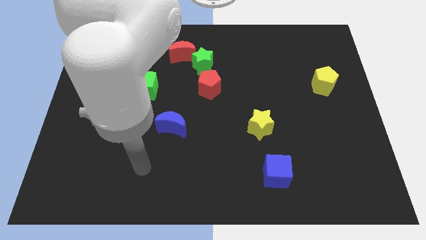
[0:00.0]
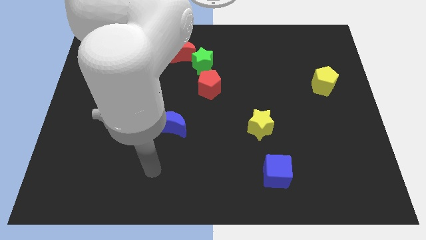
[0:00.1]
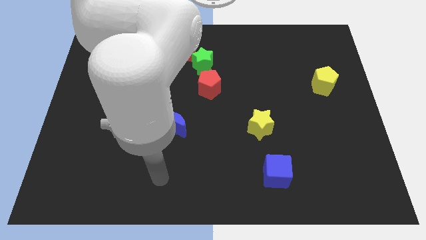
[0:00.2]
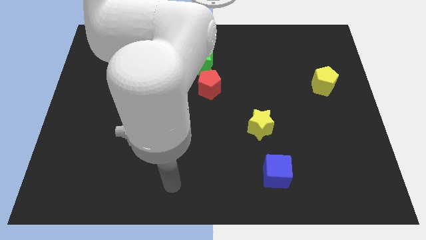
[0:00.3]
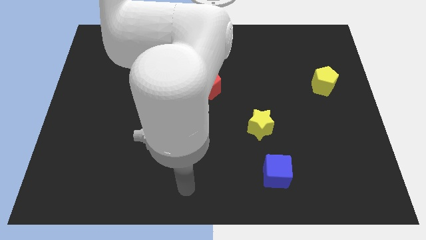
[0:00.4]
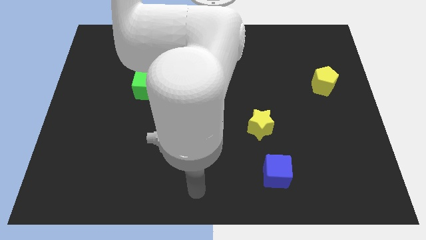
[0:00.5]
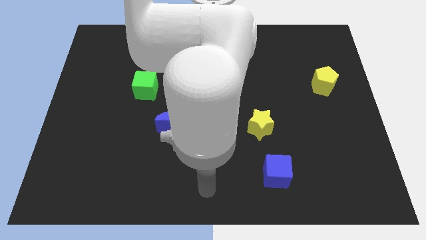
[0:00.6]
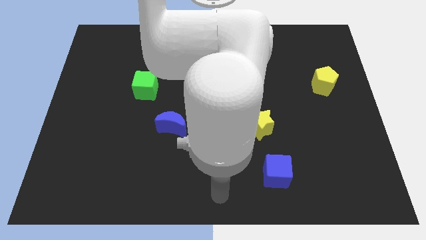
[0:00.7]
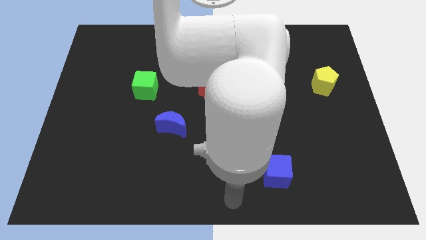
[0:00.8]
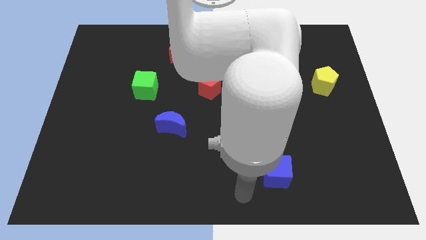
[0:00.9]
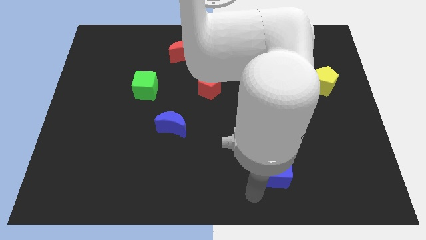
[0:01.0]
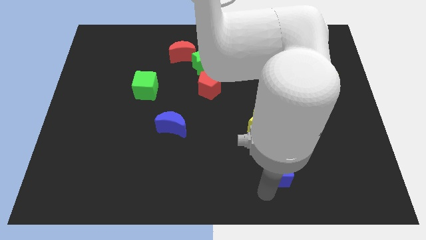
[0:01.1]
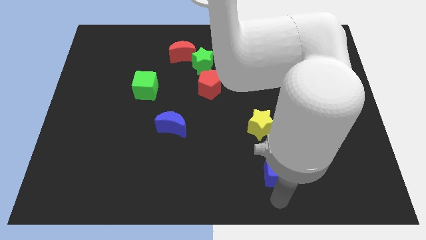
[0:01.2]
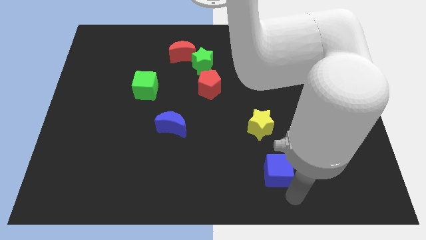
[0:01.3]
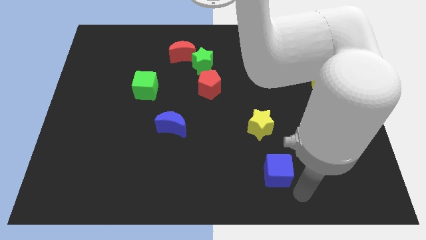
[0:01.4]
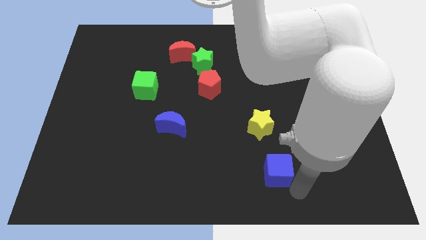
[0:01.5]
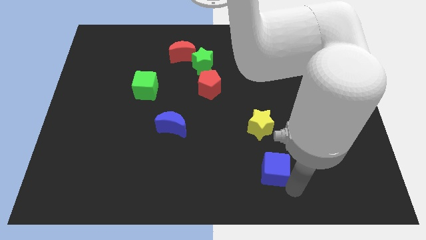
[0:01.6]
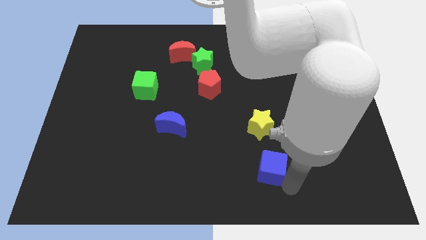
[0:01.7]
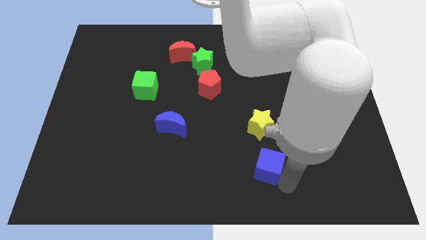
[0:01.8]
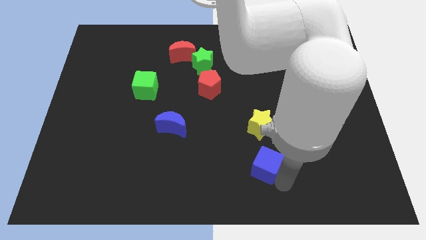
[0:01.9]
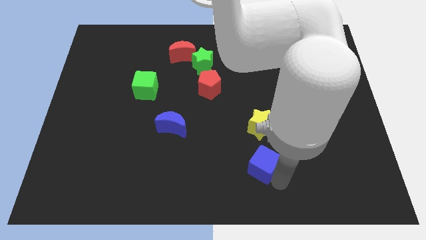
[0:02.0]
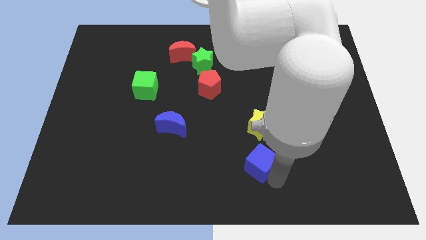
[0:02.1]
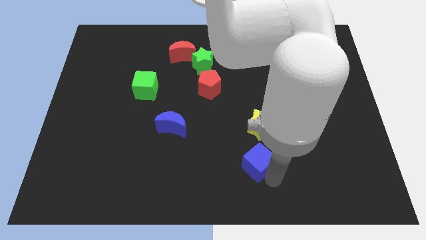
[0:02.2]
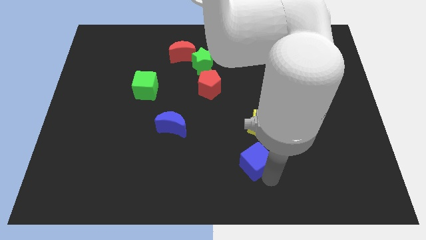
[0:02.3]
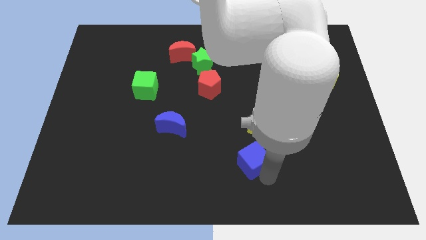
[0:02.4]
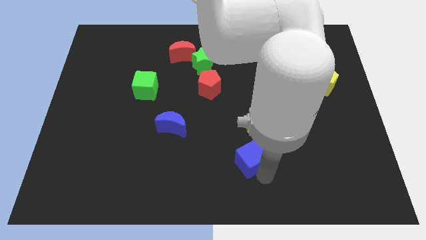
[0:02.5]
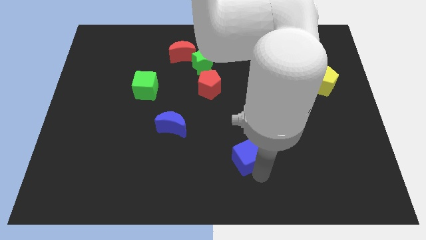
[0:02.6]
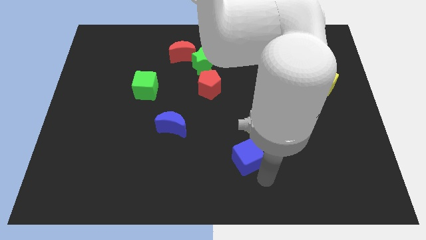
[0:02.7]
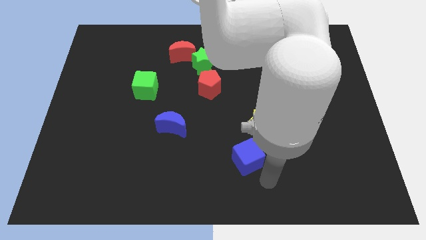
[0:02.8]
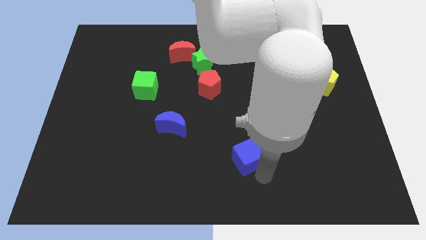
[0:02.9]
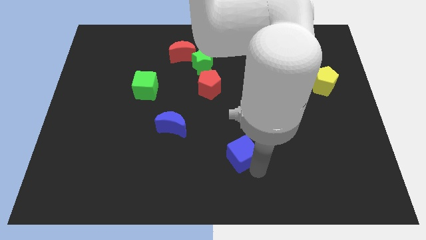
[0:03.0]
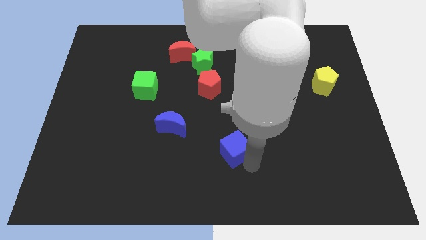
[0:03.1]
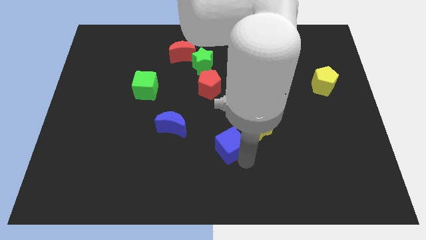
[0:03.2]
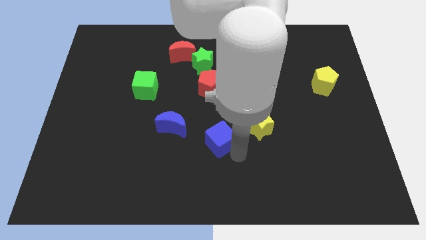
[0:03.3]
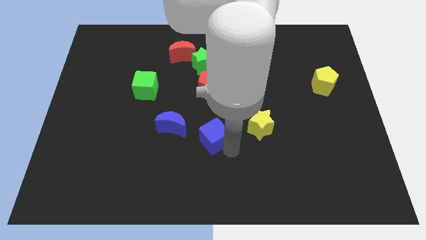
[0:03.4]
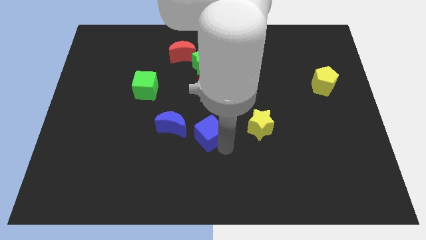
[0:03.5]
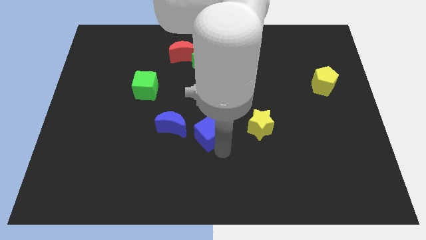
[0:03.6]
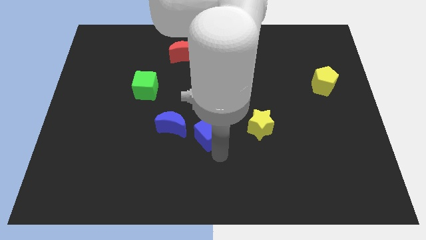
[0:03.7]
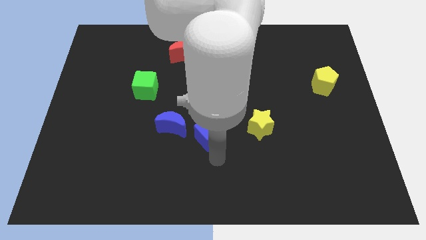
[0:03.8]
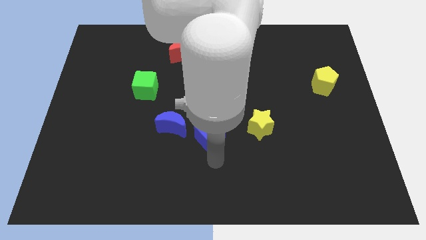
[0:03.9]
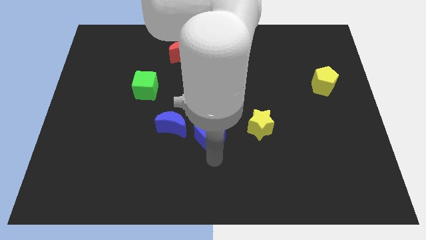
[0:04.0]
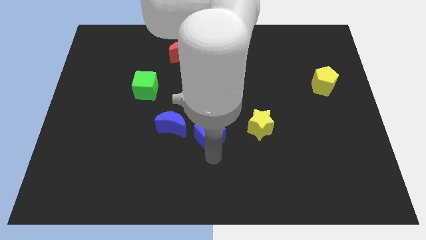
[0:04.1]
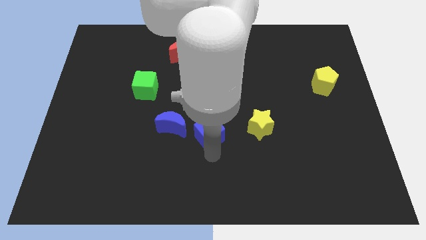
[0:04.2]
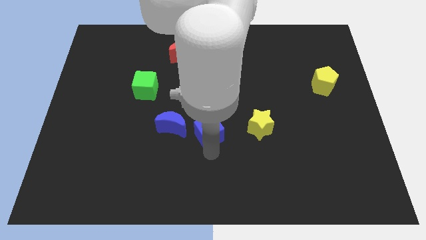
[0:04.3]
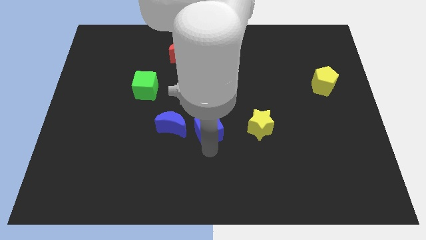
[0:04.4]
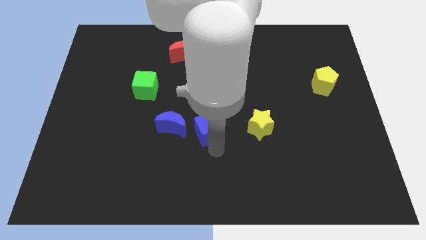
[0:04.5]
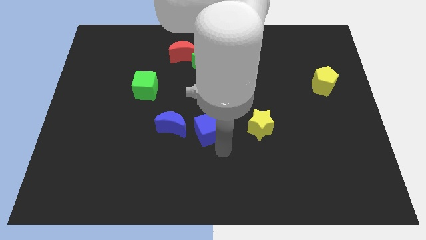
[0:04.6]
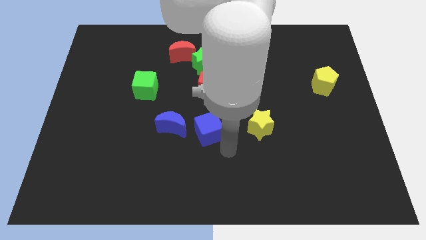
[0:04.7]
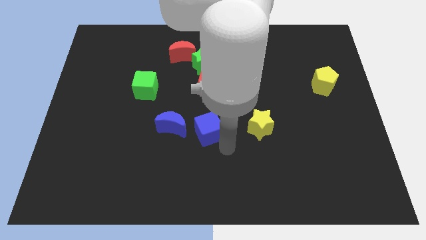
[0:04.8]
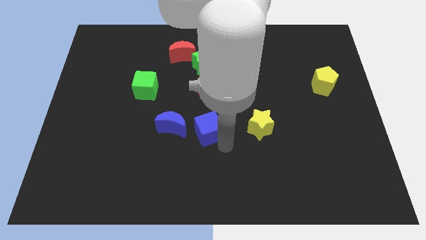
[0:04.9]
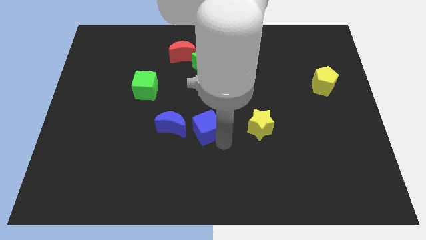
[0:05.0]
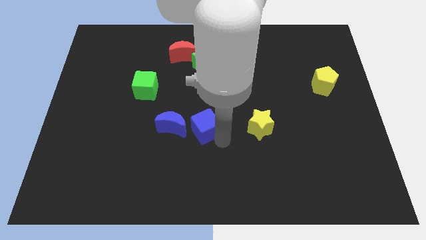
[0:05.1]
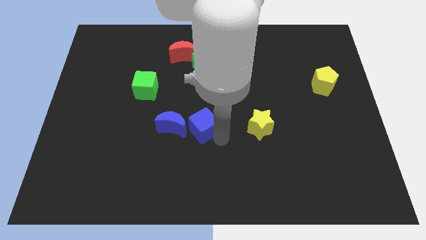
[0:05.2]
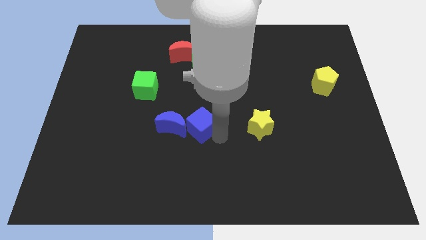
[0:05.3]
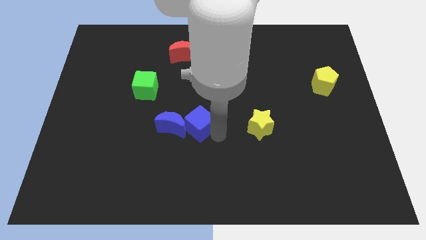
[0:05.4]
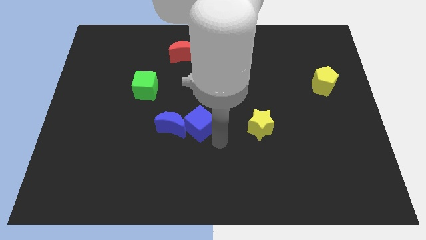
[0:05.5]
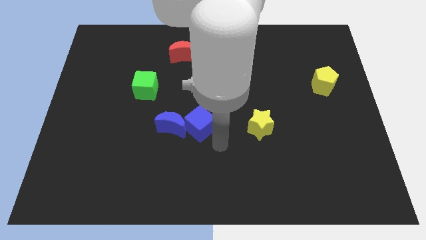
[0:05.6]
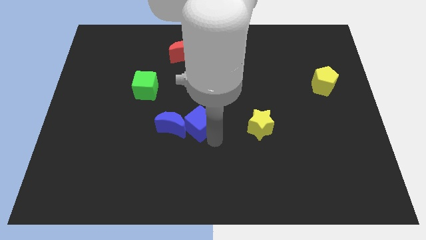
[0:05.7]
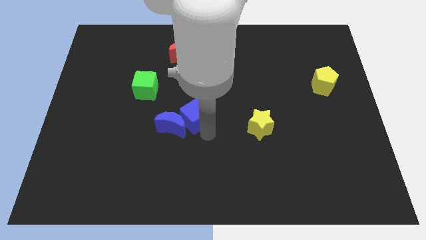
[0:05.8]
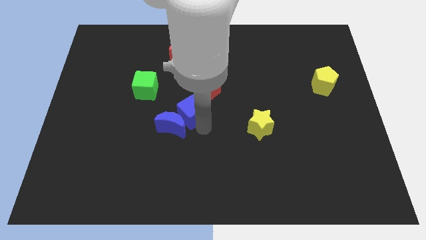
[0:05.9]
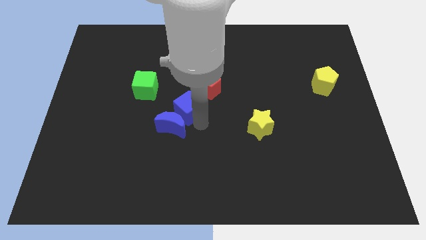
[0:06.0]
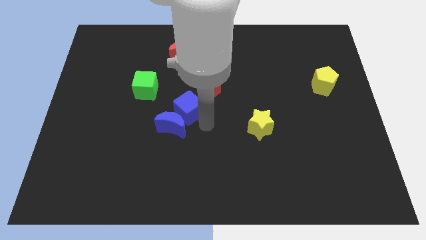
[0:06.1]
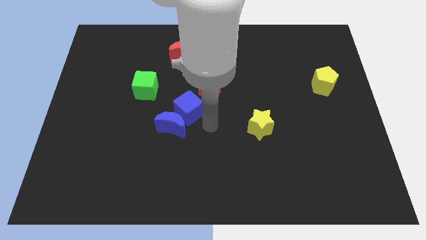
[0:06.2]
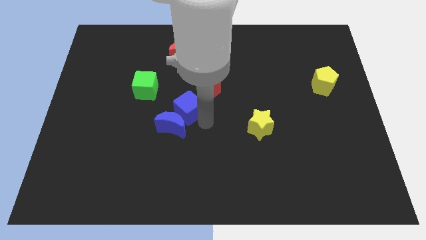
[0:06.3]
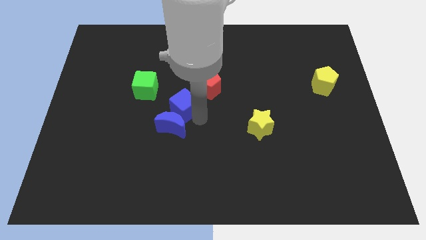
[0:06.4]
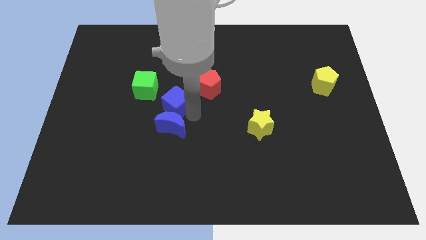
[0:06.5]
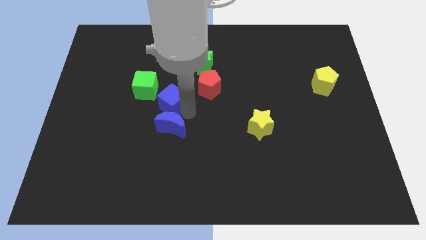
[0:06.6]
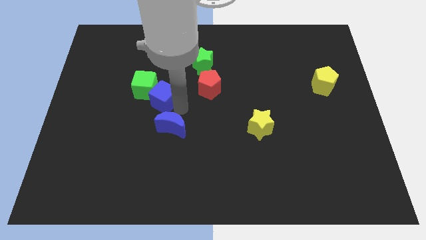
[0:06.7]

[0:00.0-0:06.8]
move the blue cube close to the green cube
